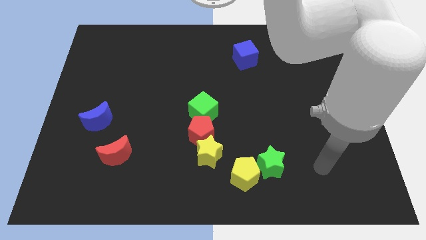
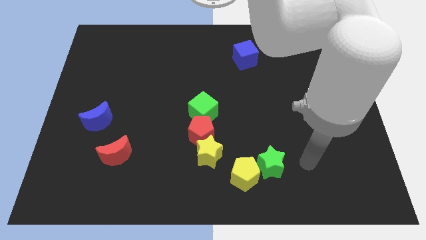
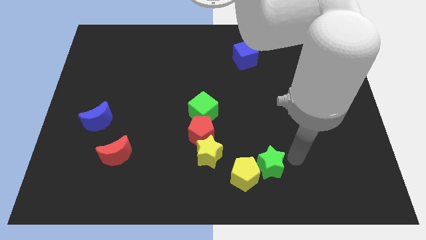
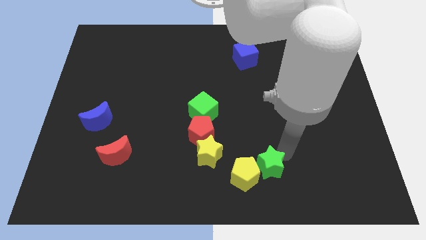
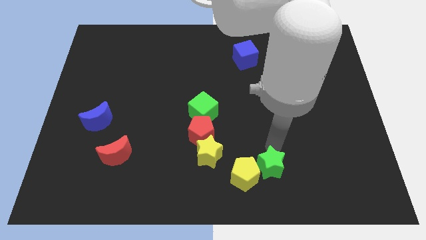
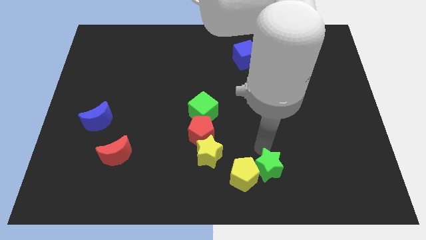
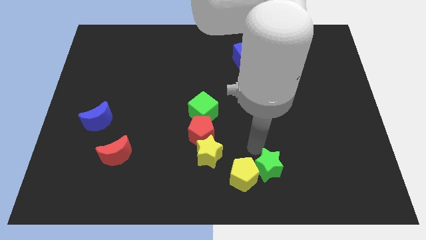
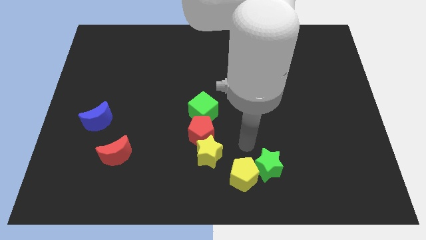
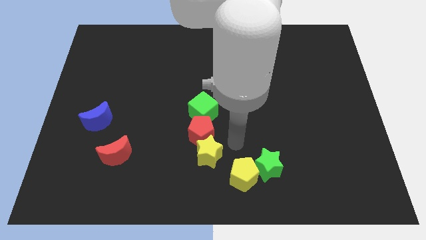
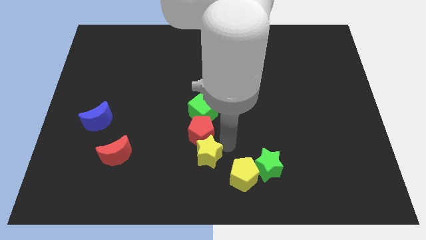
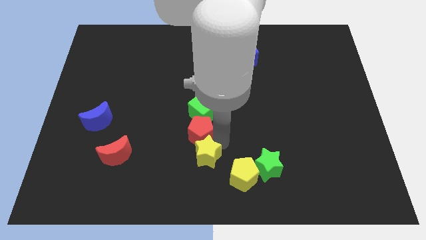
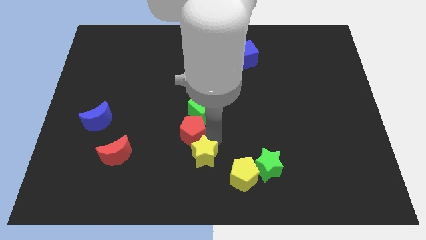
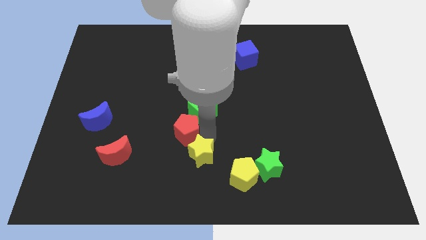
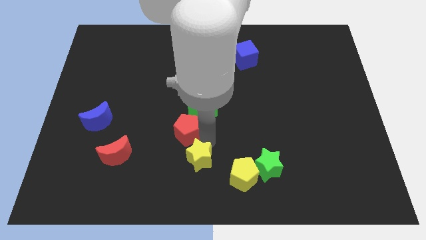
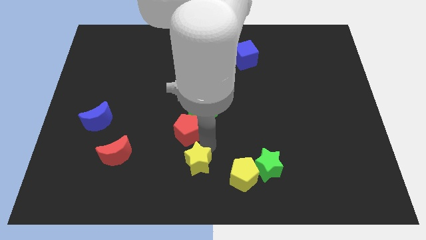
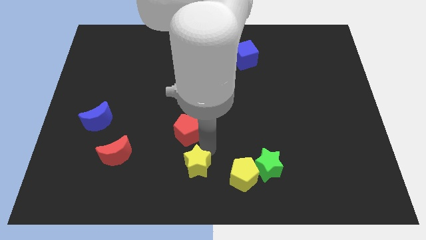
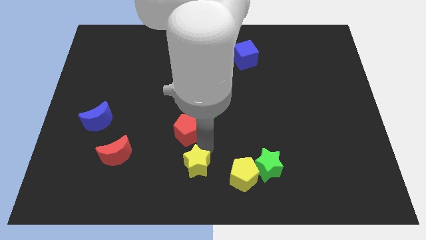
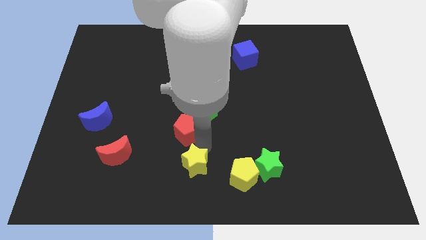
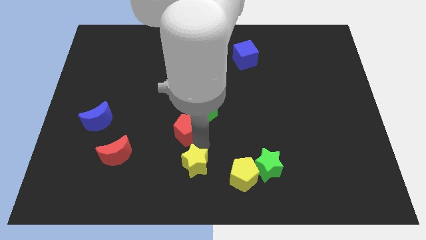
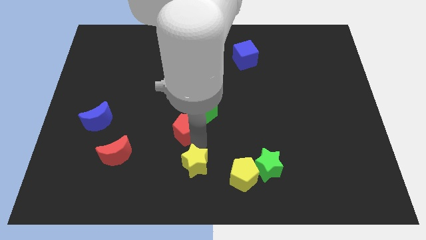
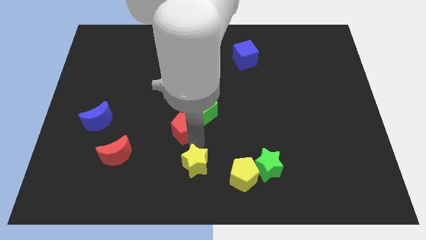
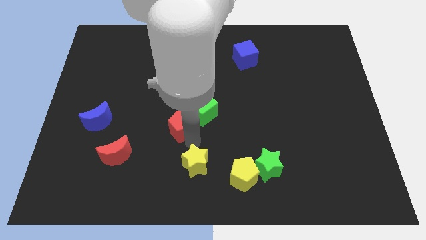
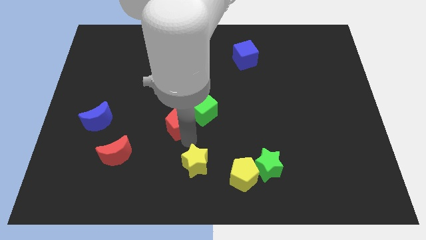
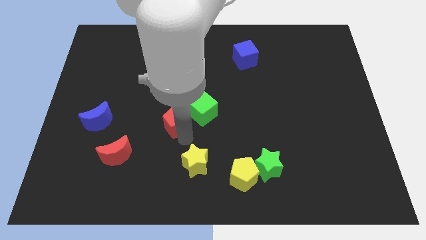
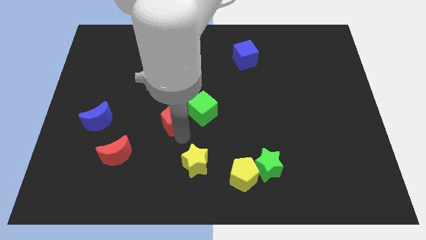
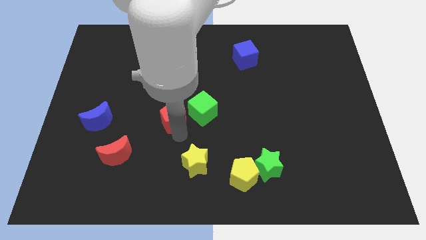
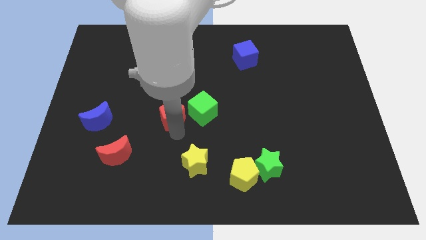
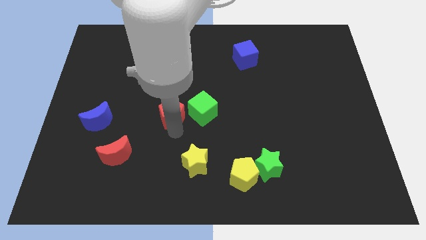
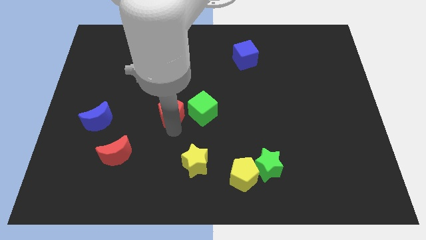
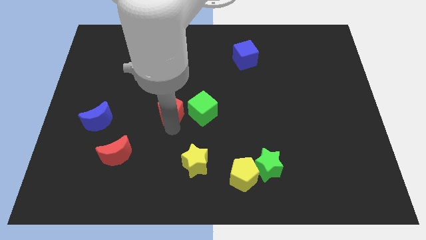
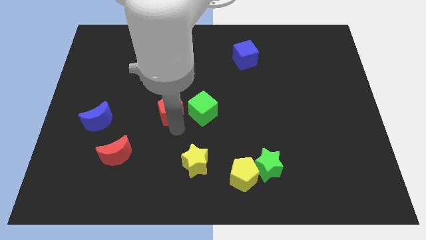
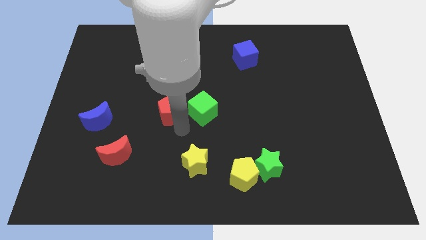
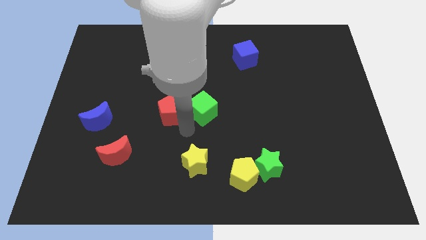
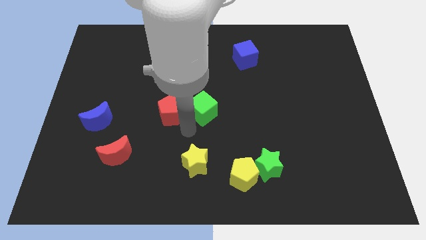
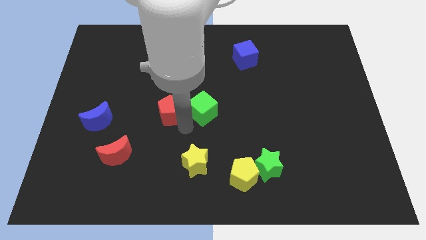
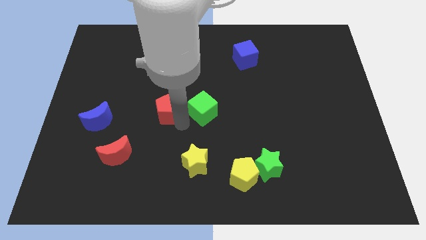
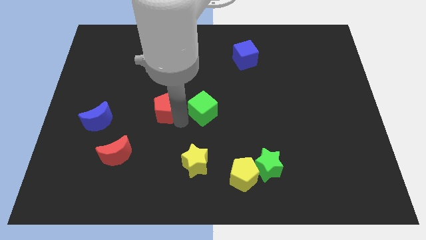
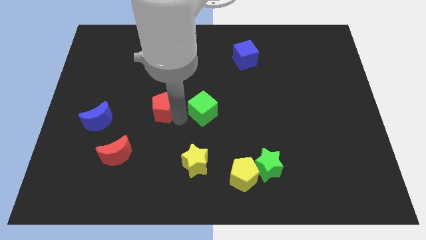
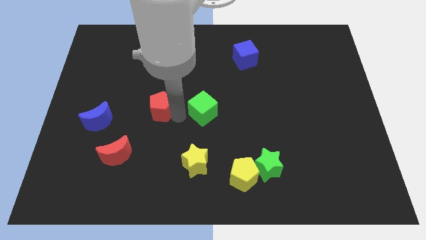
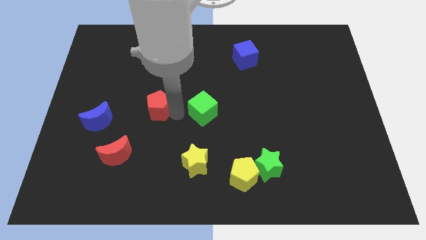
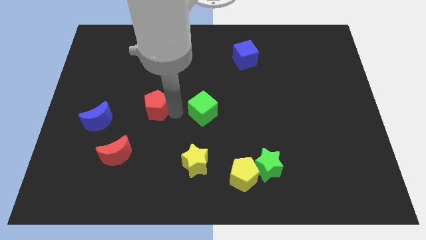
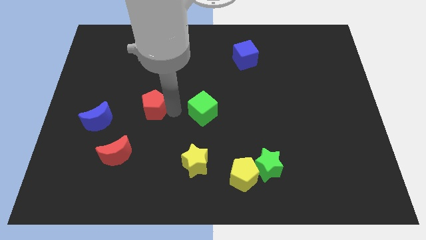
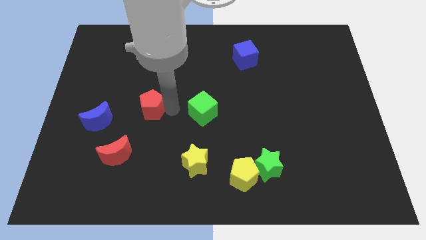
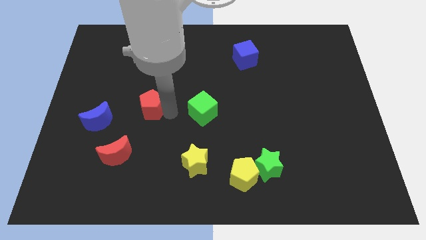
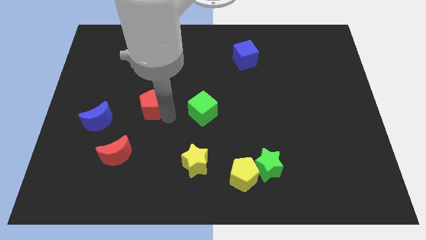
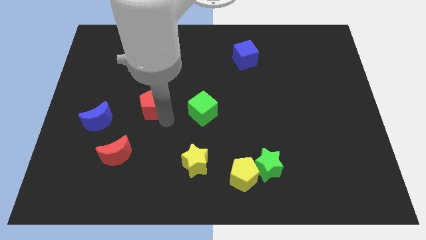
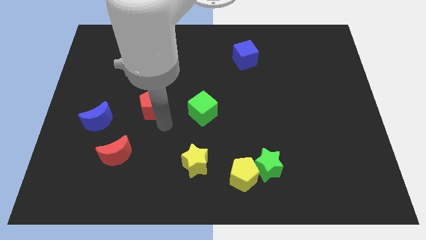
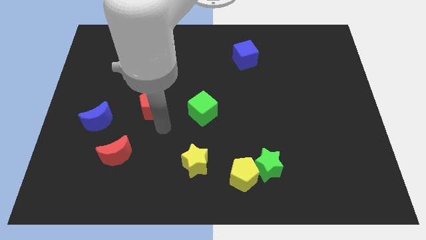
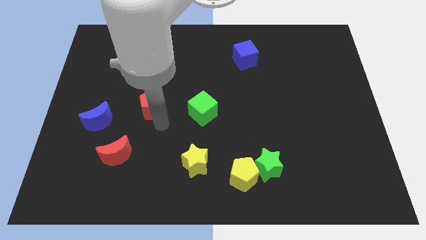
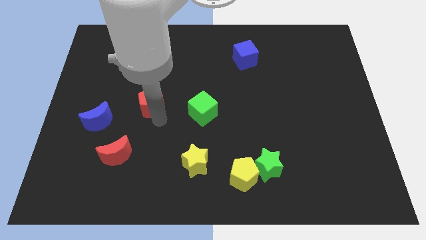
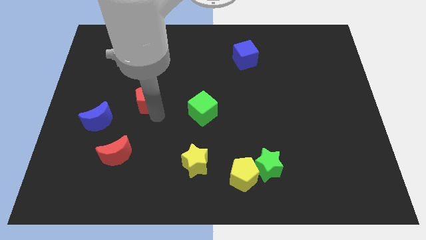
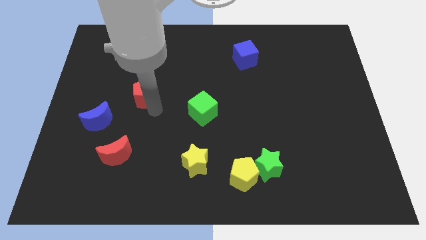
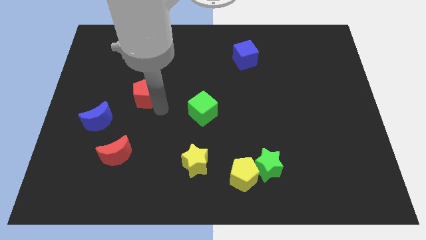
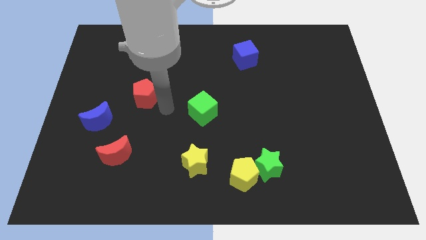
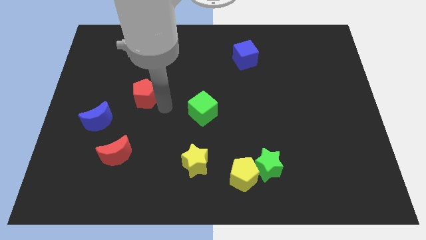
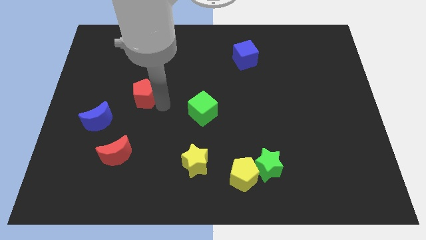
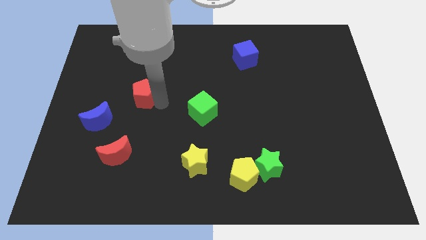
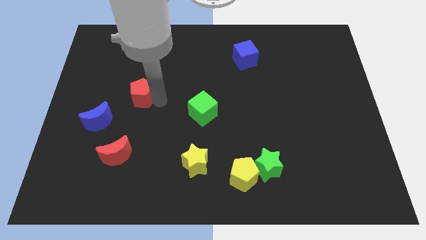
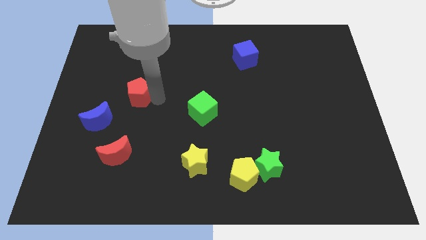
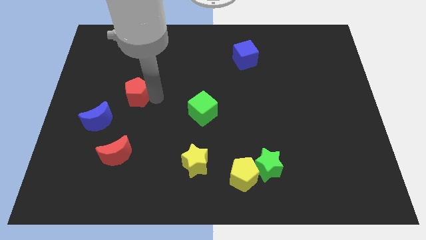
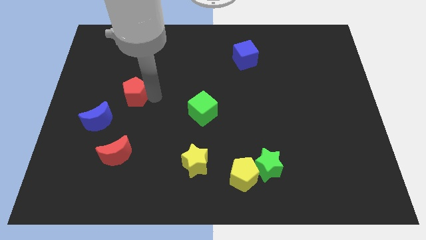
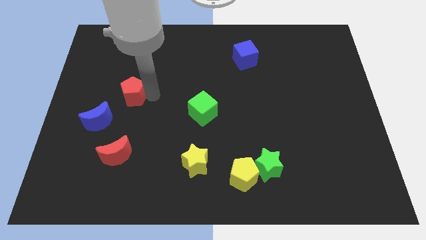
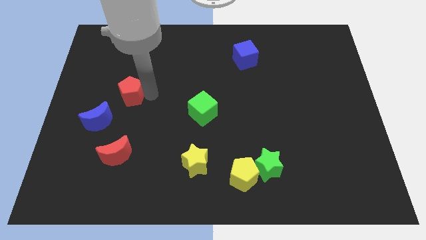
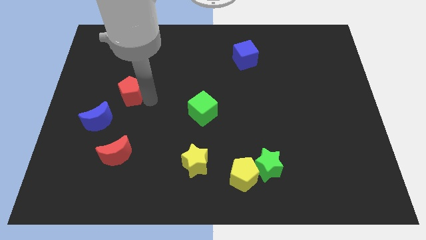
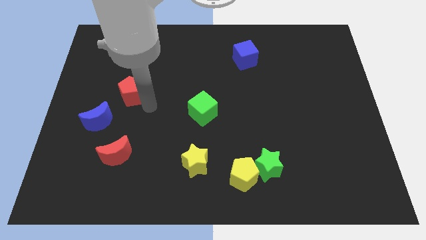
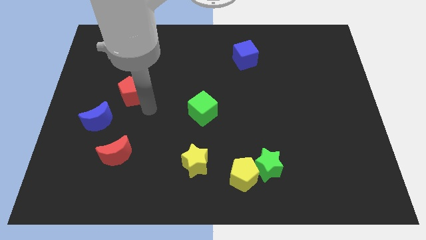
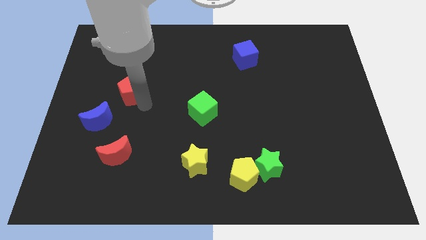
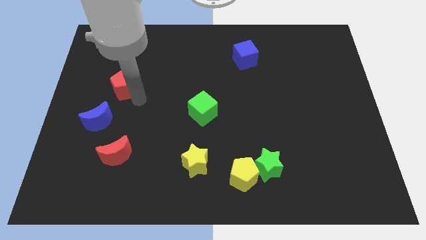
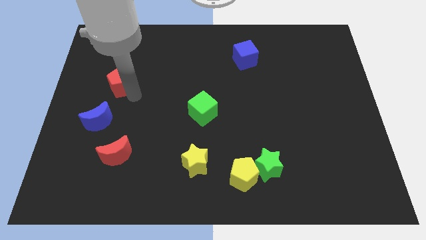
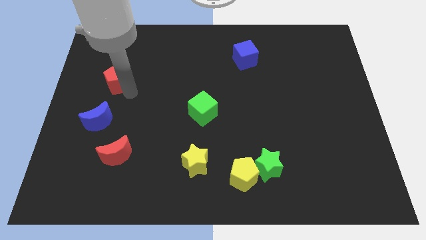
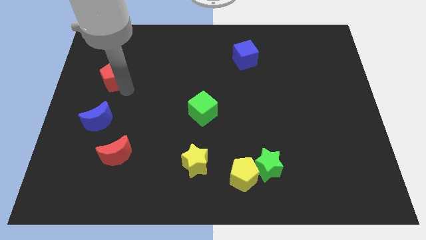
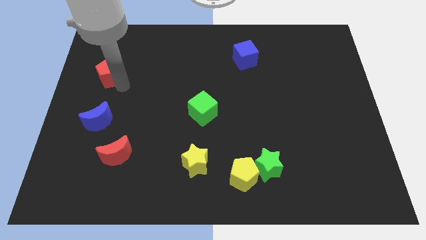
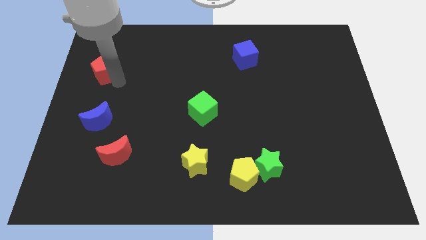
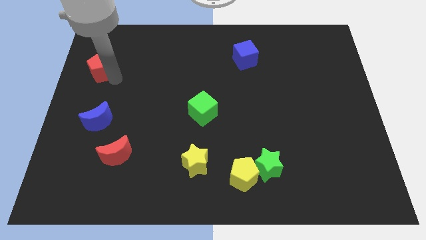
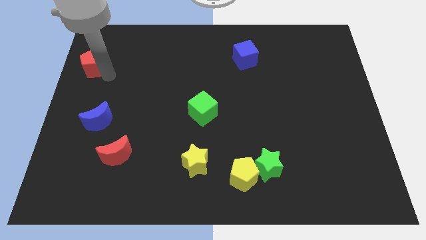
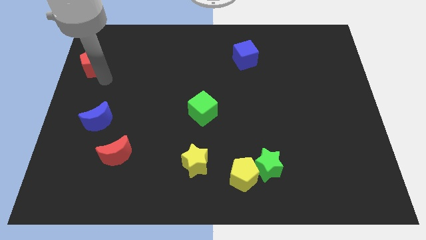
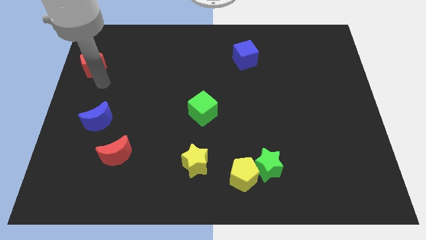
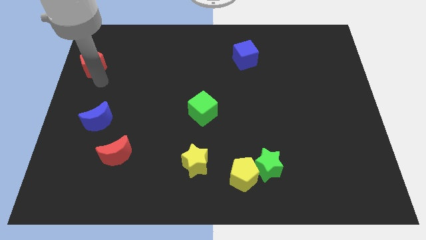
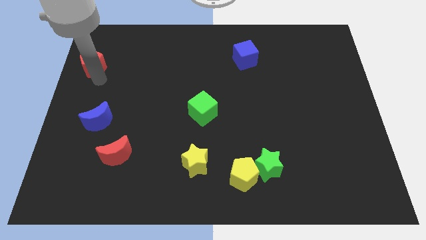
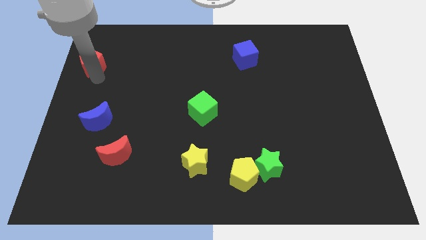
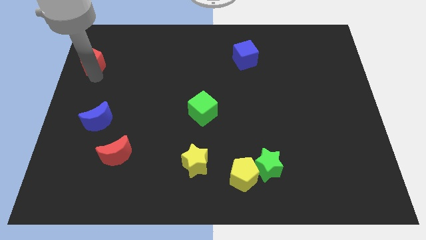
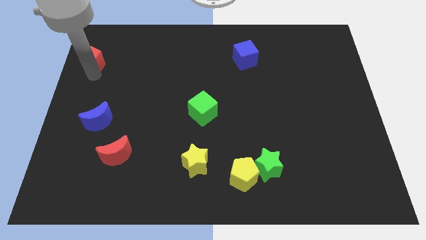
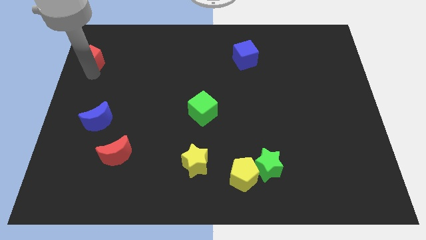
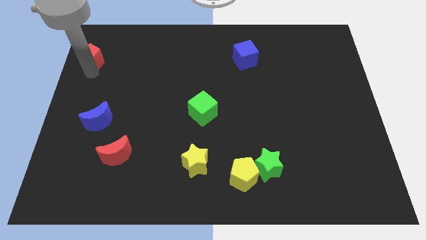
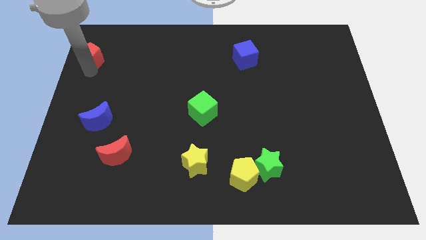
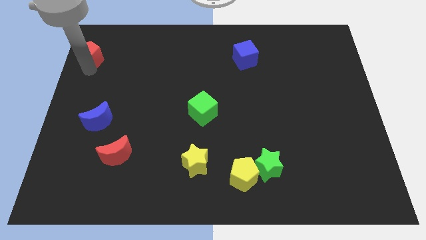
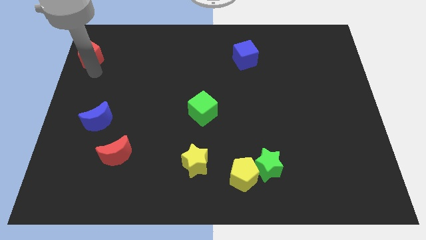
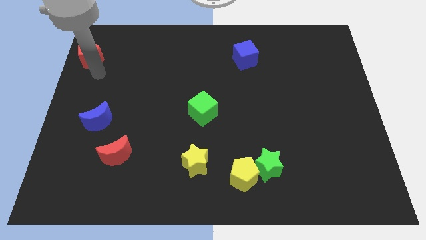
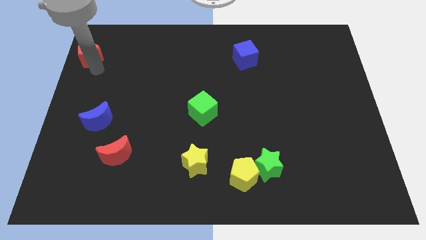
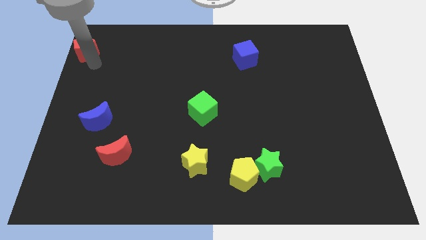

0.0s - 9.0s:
move the red pentagon to the top left
